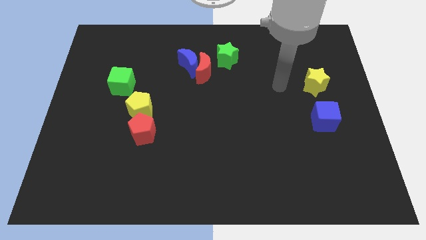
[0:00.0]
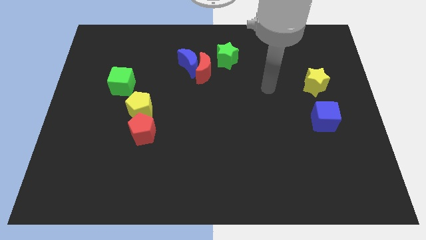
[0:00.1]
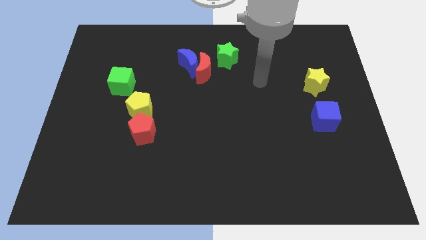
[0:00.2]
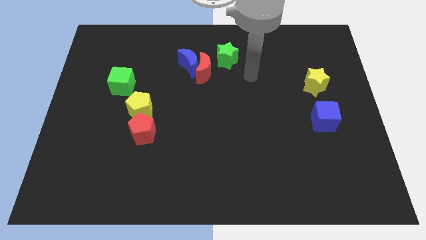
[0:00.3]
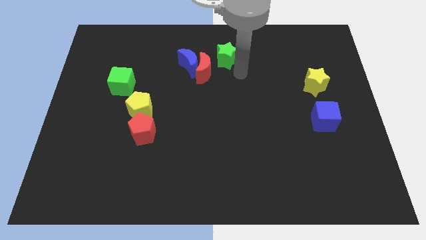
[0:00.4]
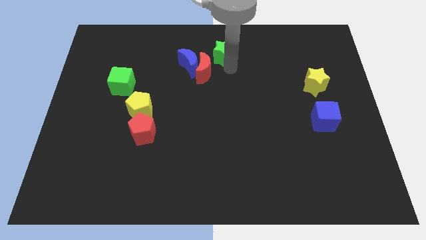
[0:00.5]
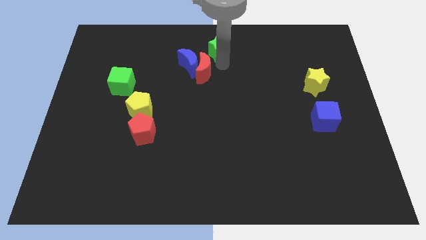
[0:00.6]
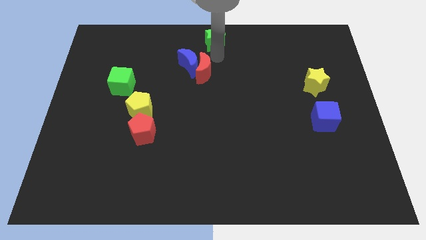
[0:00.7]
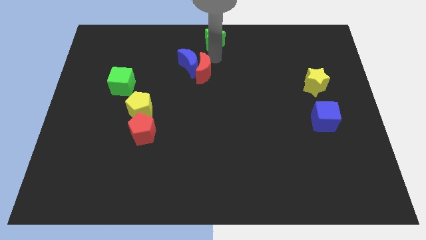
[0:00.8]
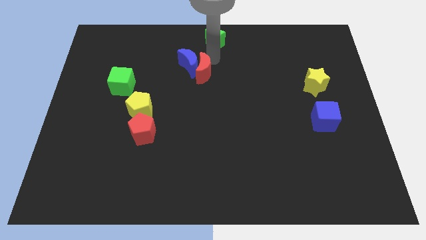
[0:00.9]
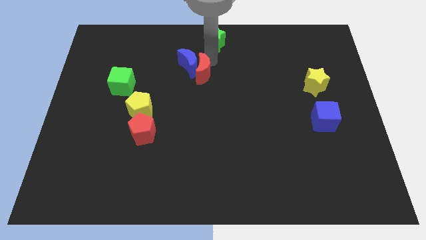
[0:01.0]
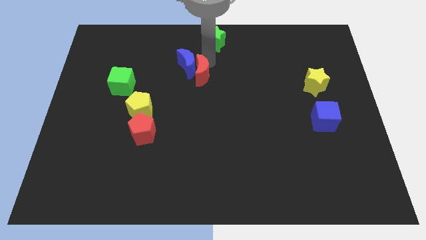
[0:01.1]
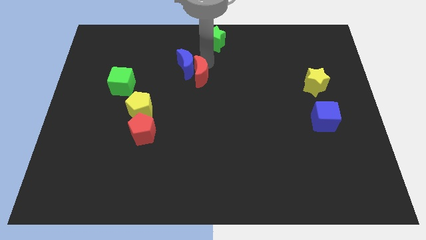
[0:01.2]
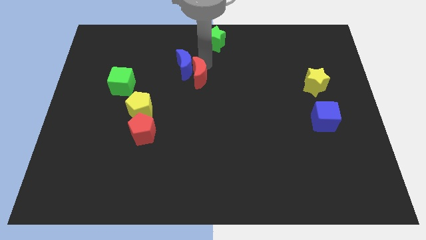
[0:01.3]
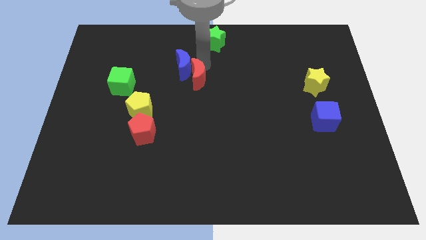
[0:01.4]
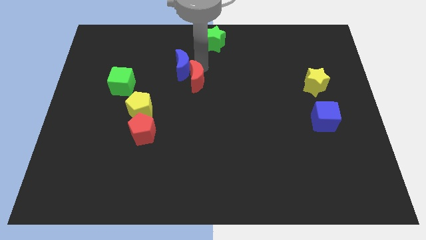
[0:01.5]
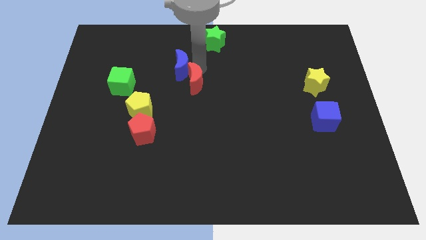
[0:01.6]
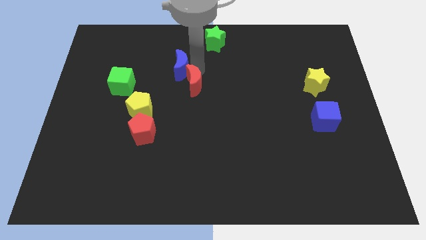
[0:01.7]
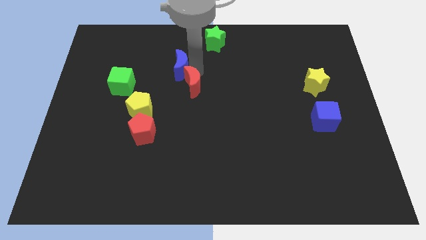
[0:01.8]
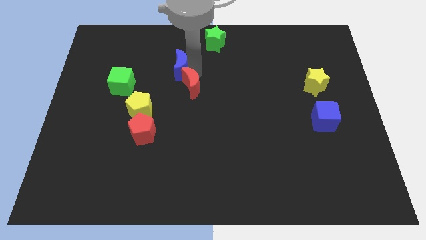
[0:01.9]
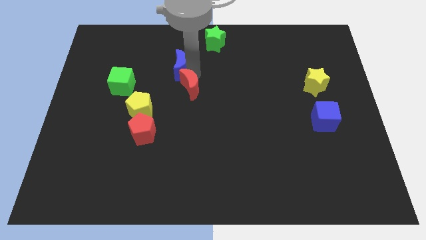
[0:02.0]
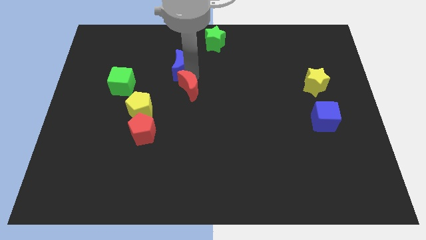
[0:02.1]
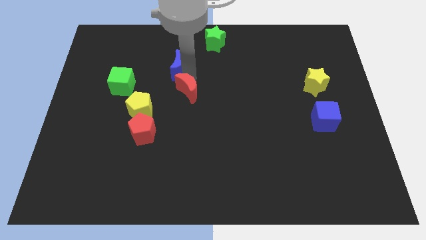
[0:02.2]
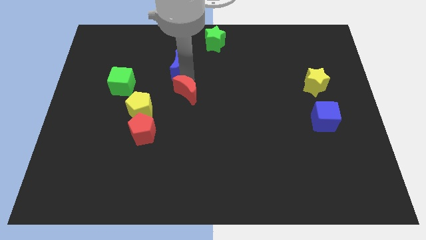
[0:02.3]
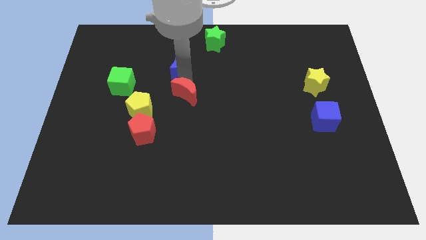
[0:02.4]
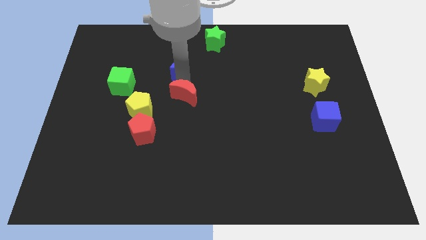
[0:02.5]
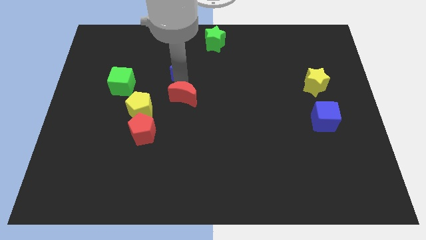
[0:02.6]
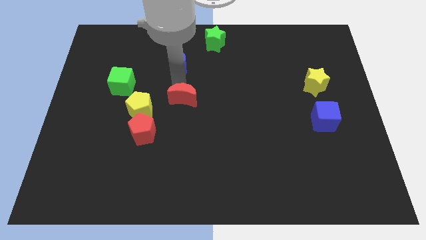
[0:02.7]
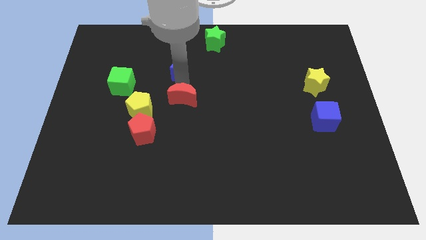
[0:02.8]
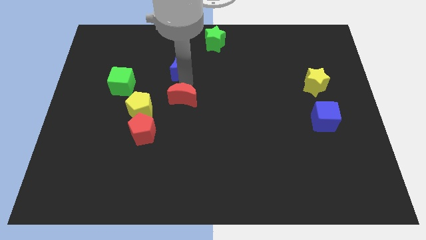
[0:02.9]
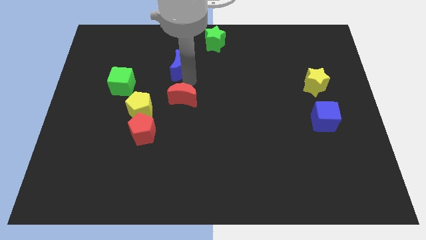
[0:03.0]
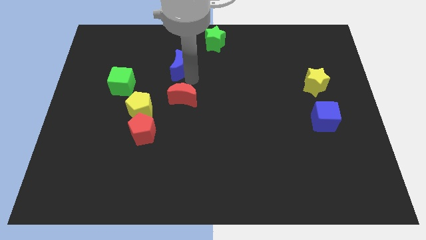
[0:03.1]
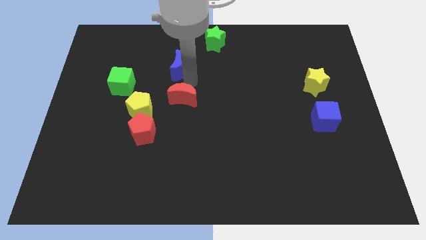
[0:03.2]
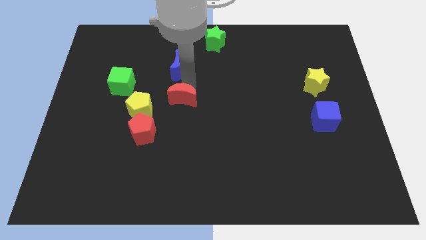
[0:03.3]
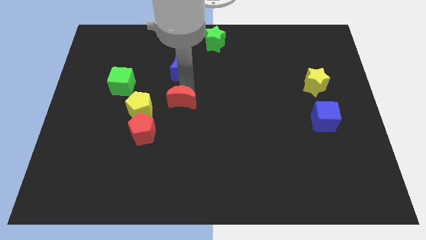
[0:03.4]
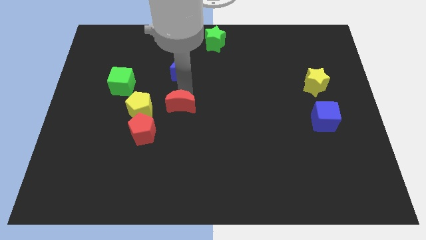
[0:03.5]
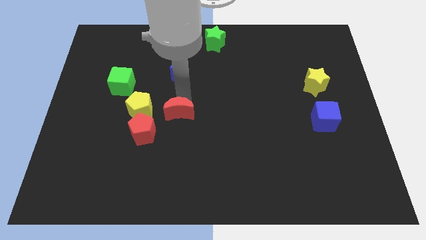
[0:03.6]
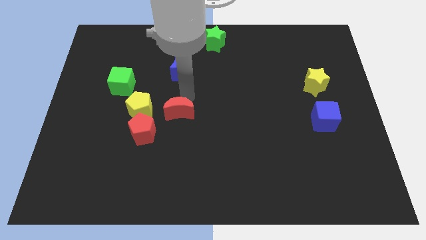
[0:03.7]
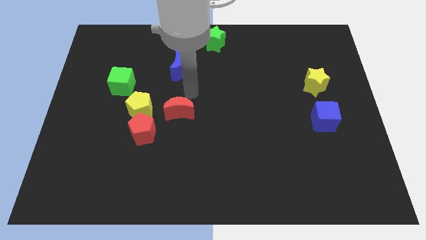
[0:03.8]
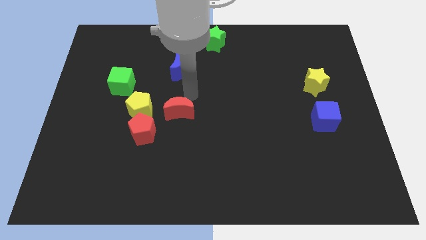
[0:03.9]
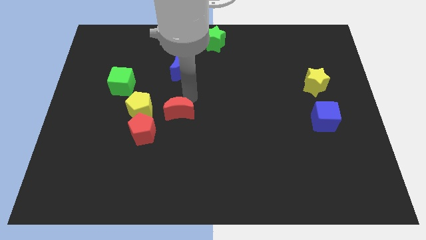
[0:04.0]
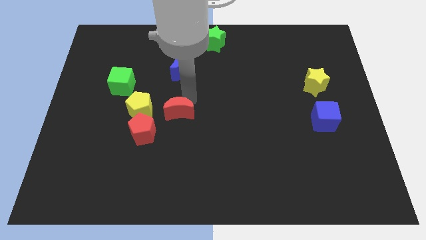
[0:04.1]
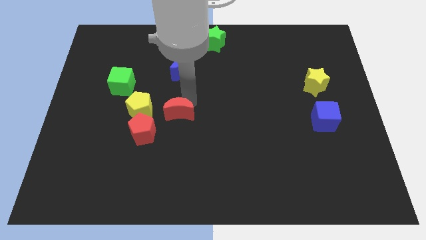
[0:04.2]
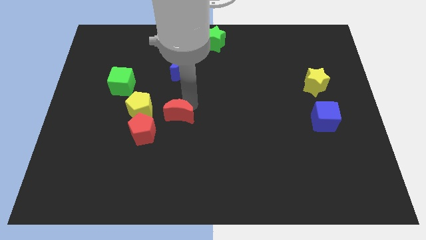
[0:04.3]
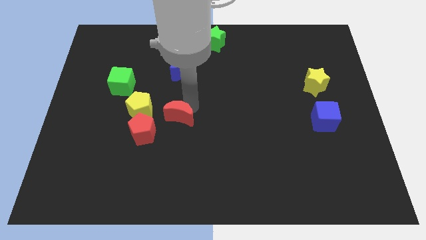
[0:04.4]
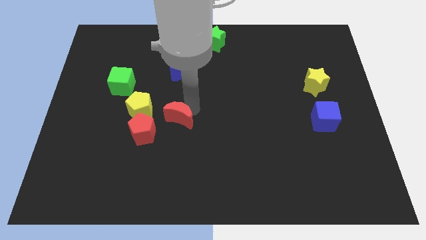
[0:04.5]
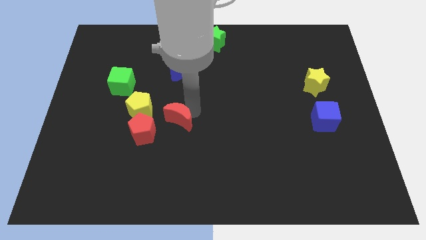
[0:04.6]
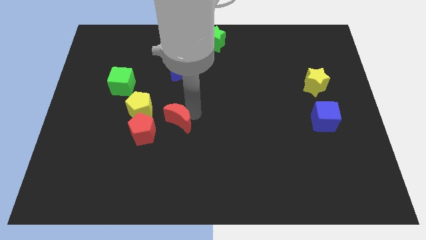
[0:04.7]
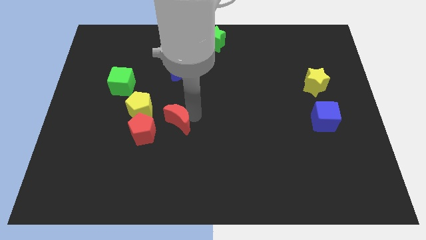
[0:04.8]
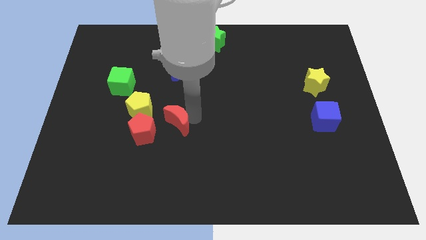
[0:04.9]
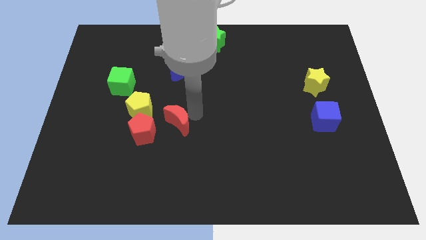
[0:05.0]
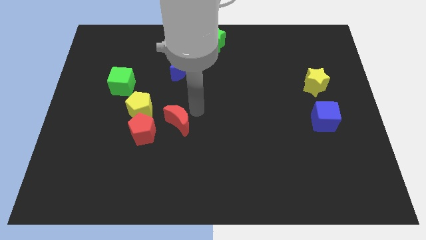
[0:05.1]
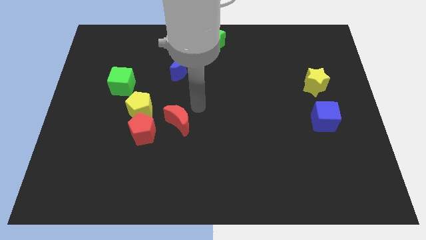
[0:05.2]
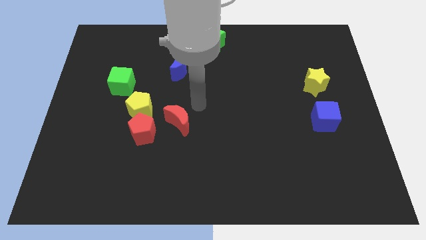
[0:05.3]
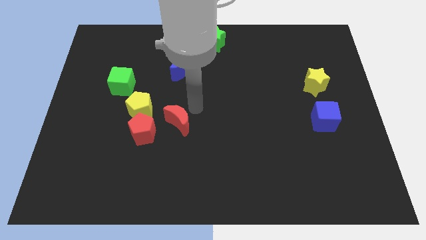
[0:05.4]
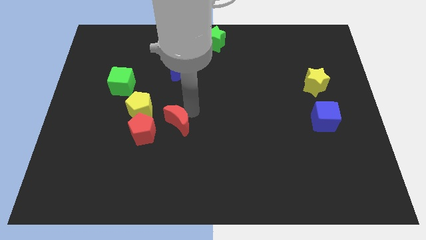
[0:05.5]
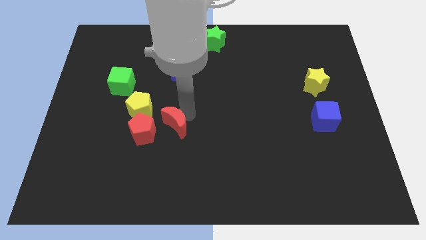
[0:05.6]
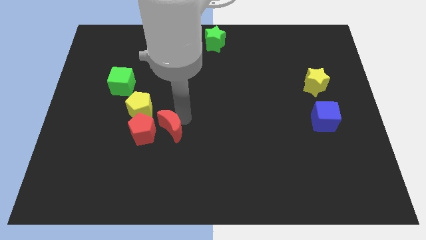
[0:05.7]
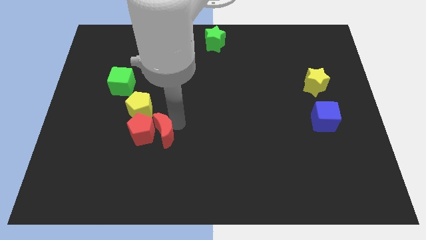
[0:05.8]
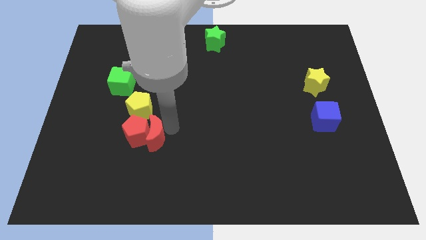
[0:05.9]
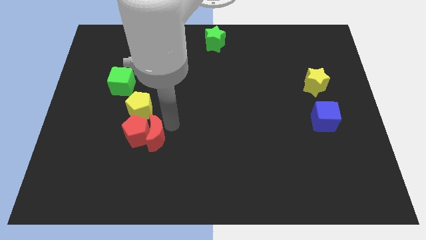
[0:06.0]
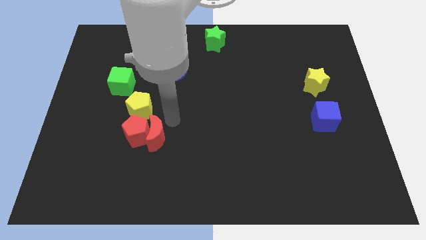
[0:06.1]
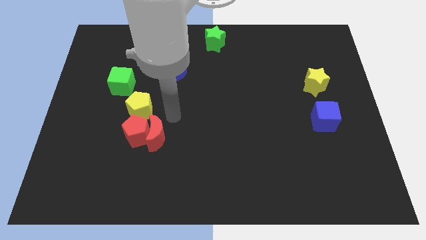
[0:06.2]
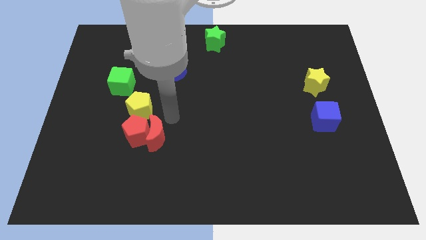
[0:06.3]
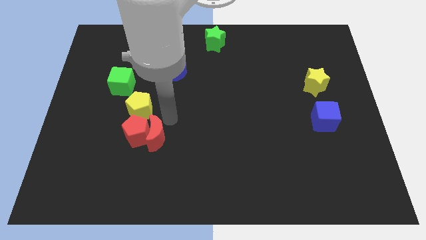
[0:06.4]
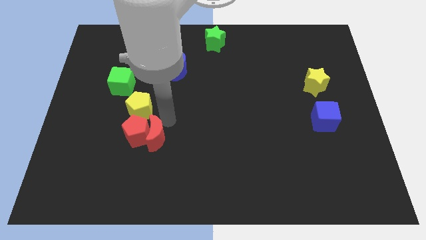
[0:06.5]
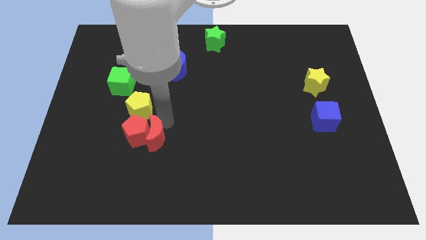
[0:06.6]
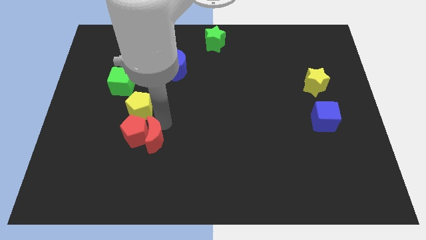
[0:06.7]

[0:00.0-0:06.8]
push the red moon down and then left

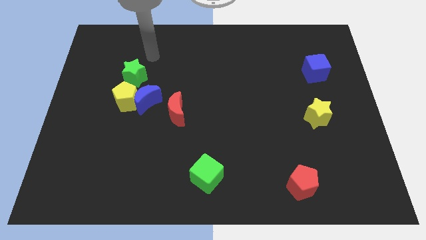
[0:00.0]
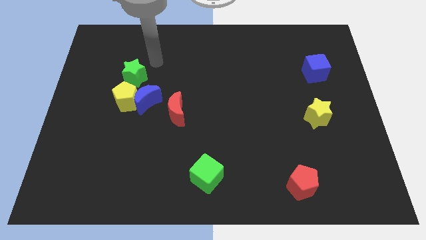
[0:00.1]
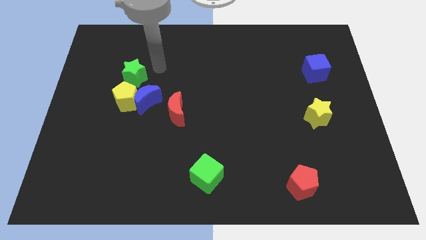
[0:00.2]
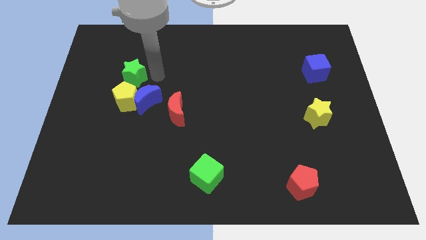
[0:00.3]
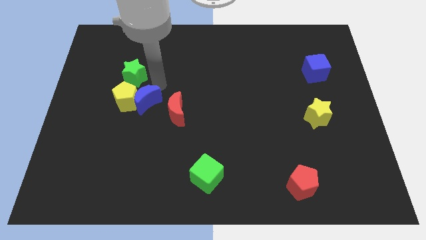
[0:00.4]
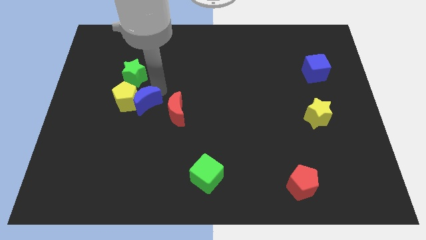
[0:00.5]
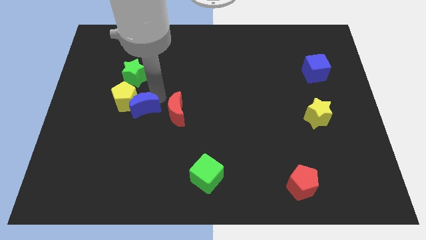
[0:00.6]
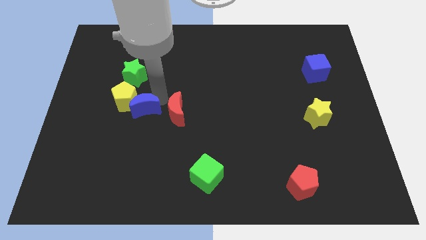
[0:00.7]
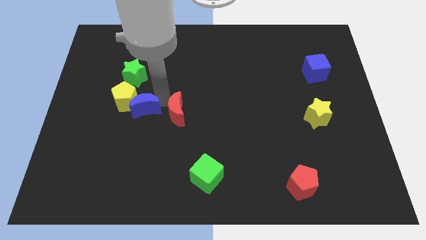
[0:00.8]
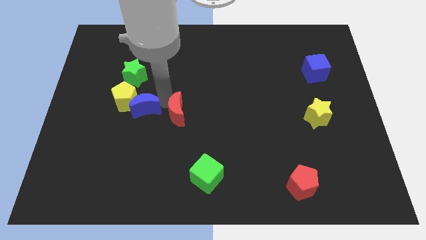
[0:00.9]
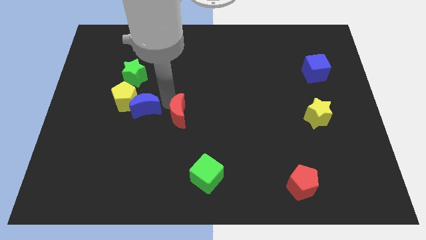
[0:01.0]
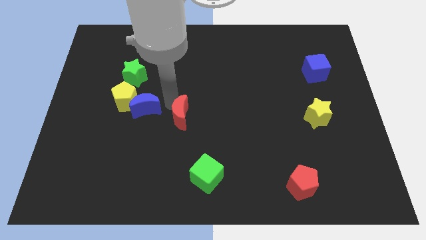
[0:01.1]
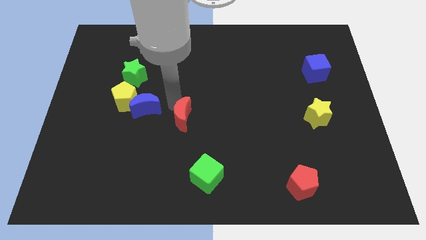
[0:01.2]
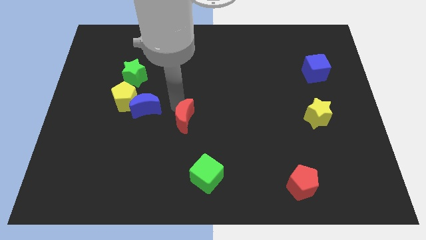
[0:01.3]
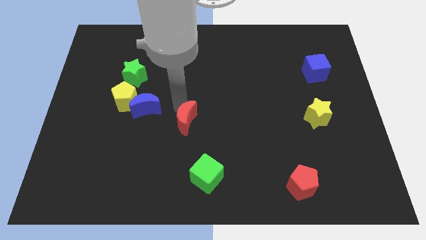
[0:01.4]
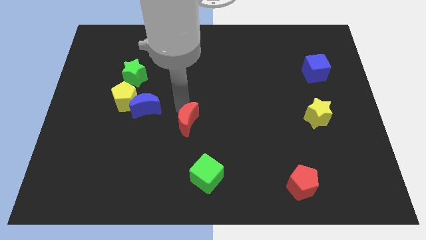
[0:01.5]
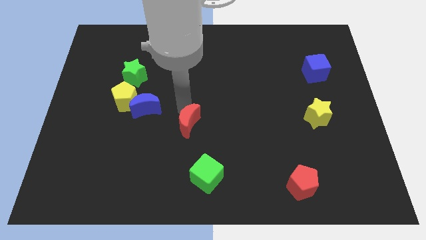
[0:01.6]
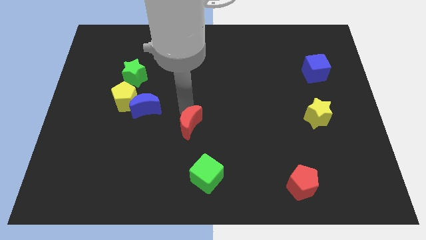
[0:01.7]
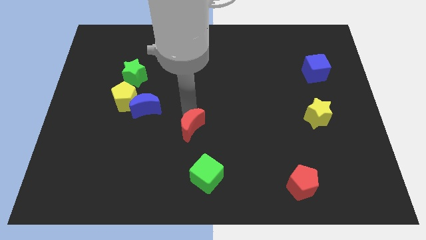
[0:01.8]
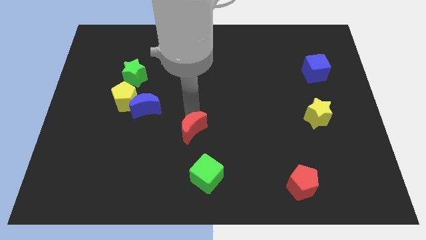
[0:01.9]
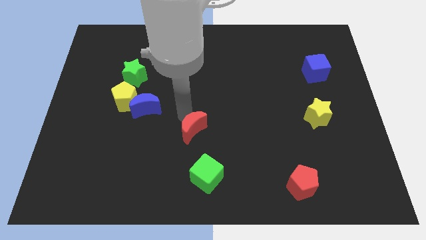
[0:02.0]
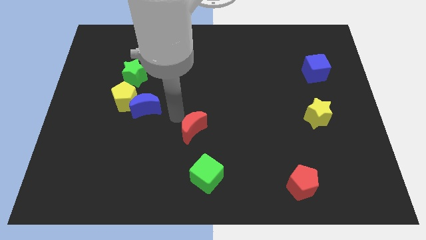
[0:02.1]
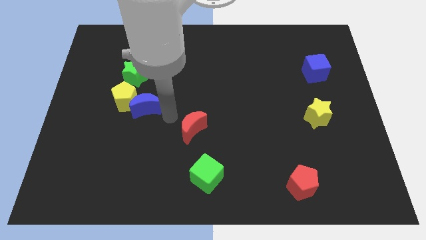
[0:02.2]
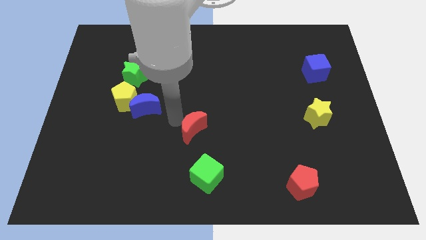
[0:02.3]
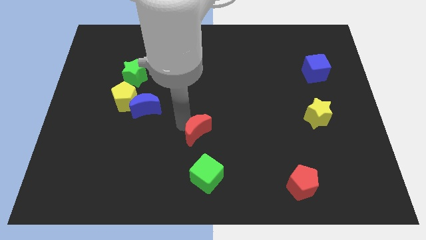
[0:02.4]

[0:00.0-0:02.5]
slightly move the red moon diagonally downwards and to the right
